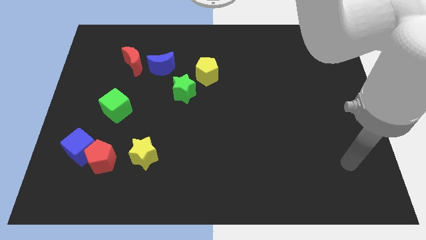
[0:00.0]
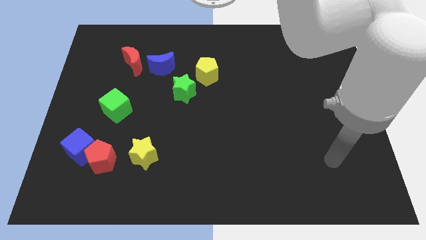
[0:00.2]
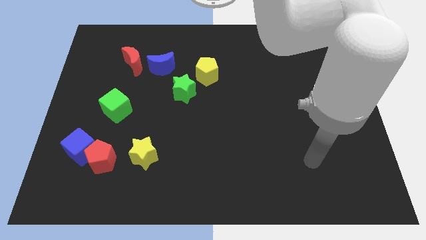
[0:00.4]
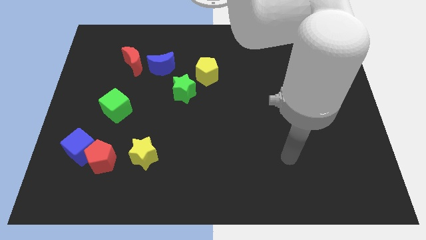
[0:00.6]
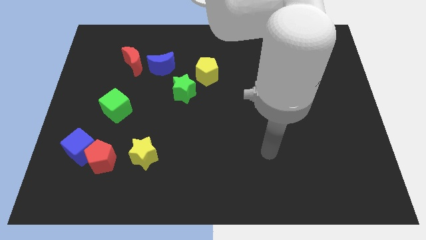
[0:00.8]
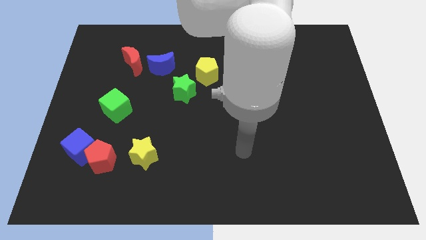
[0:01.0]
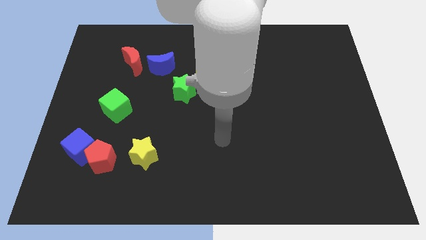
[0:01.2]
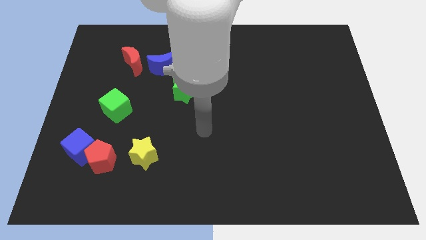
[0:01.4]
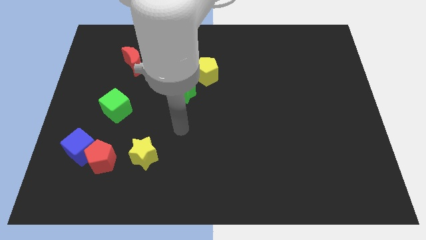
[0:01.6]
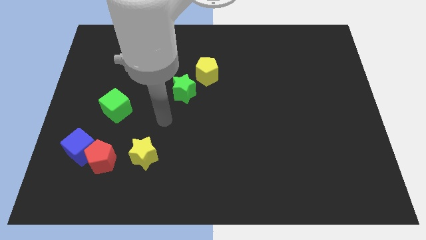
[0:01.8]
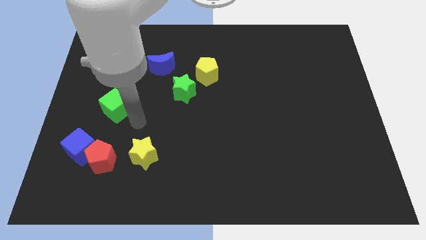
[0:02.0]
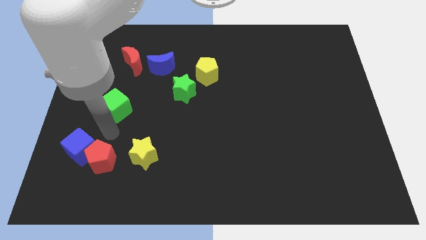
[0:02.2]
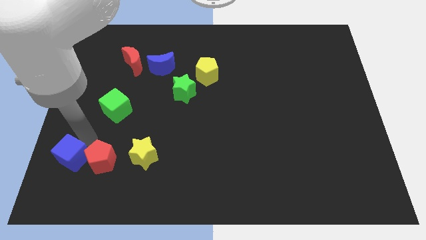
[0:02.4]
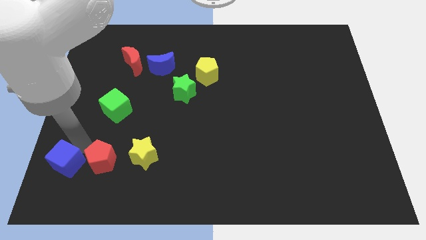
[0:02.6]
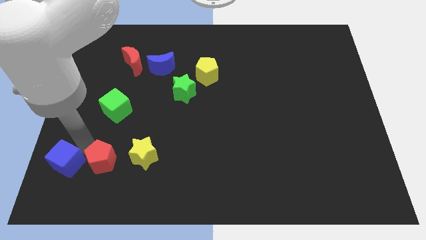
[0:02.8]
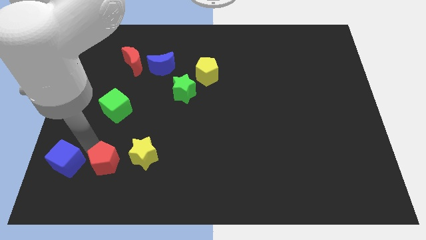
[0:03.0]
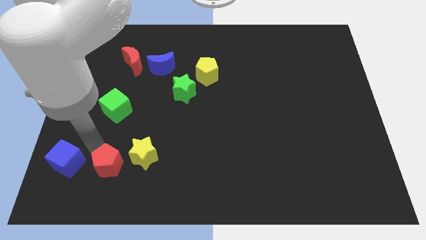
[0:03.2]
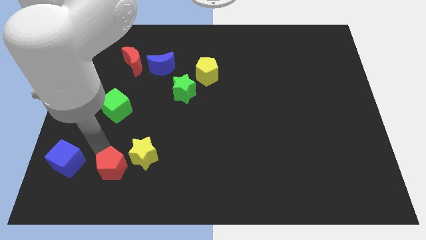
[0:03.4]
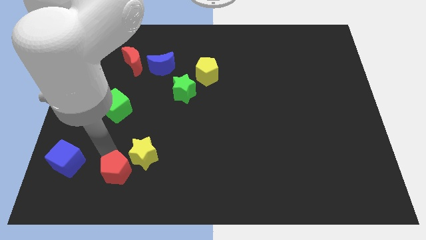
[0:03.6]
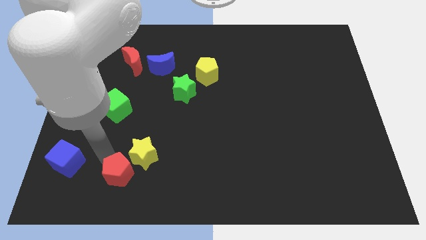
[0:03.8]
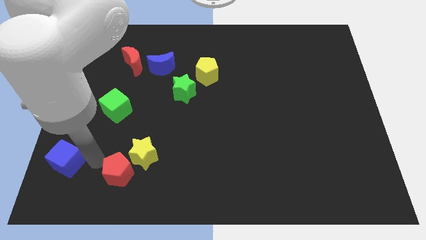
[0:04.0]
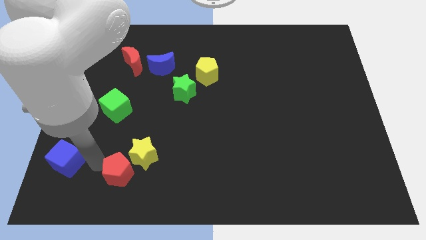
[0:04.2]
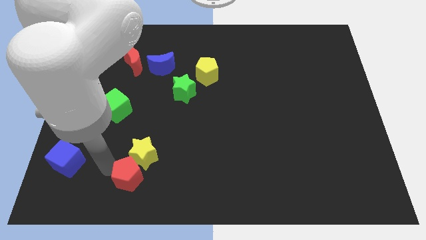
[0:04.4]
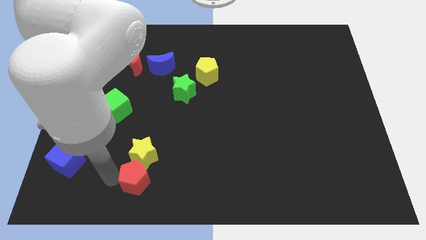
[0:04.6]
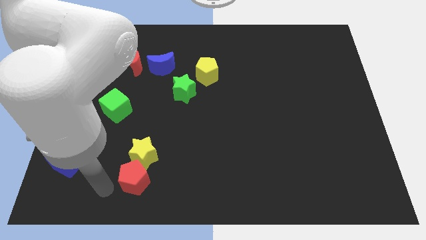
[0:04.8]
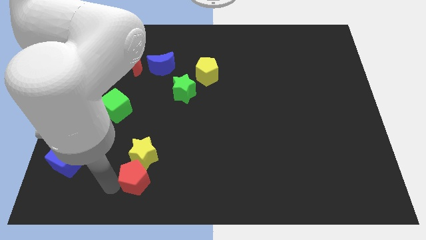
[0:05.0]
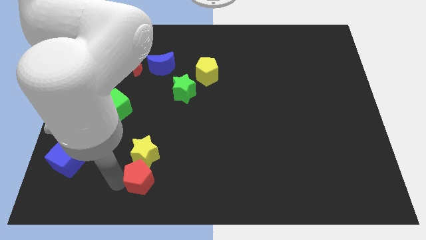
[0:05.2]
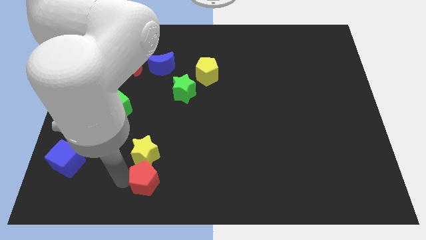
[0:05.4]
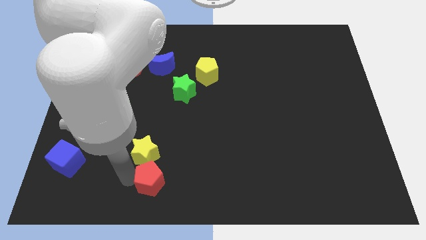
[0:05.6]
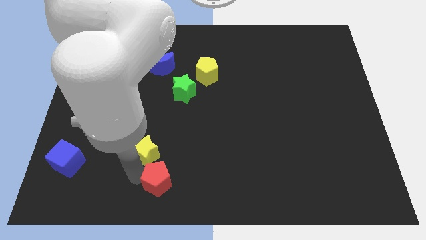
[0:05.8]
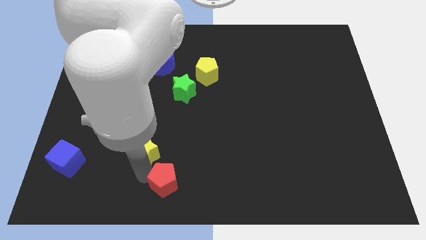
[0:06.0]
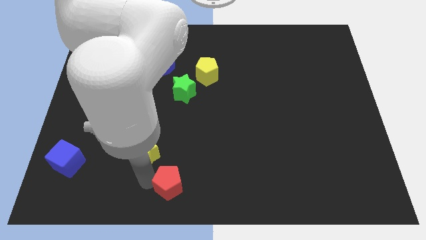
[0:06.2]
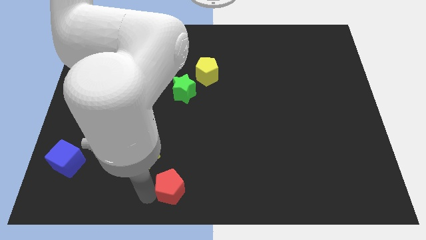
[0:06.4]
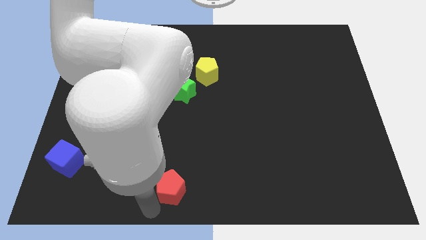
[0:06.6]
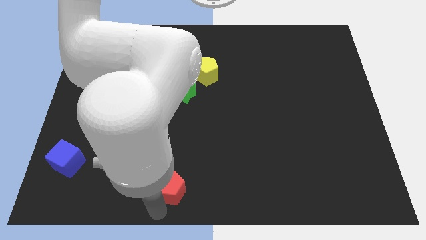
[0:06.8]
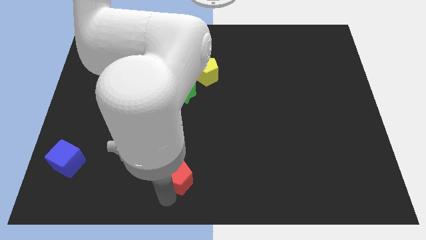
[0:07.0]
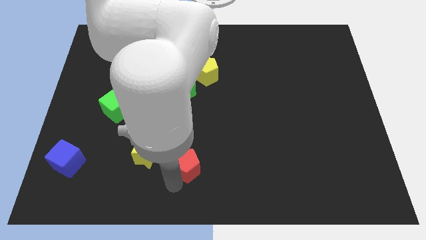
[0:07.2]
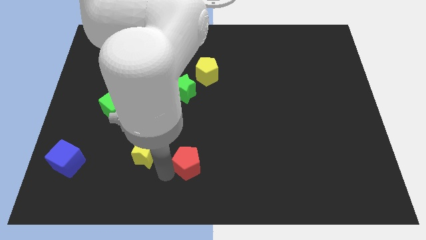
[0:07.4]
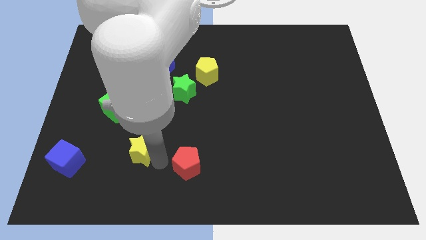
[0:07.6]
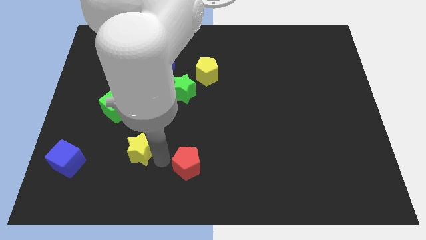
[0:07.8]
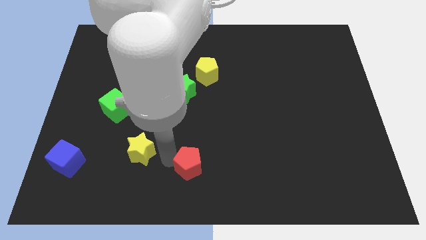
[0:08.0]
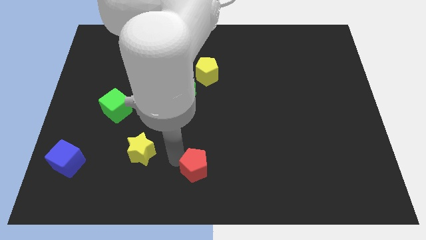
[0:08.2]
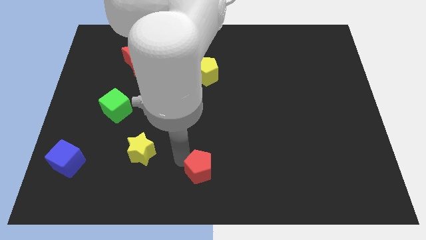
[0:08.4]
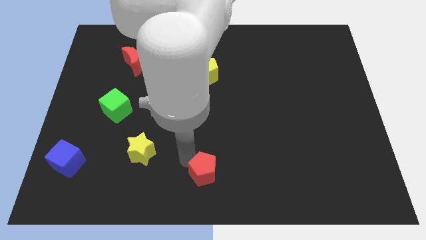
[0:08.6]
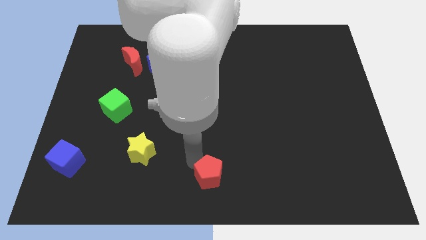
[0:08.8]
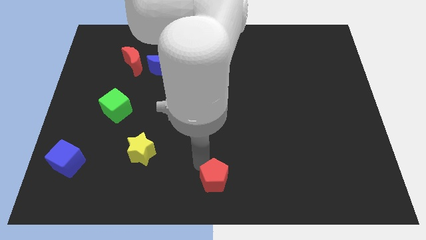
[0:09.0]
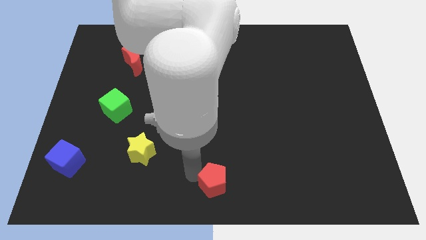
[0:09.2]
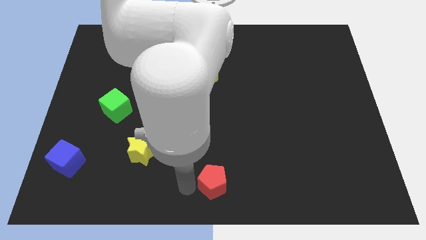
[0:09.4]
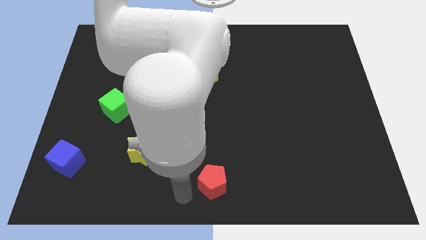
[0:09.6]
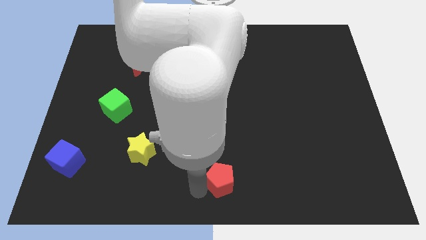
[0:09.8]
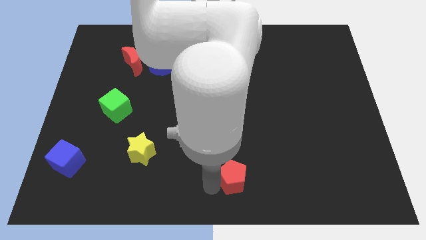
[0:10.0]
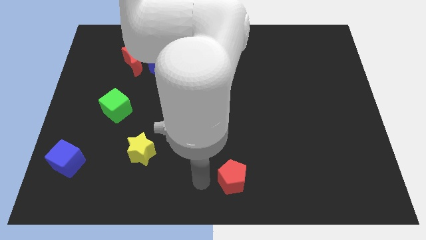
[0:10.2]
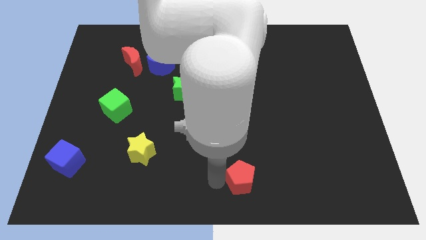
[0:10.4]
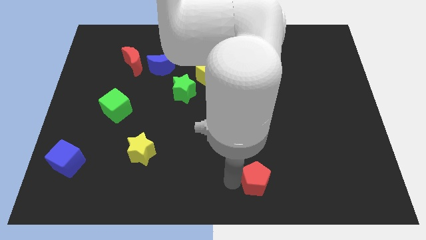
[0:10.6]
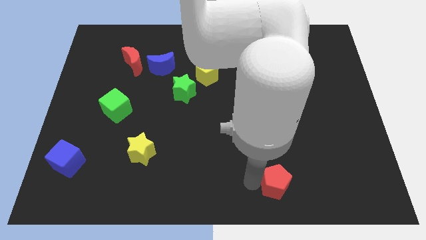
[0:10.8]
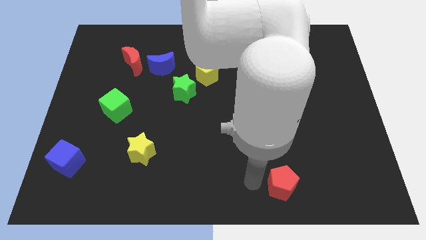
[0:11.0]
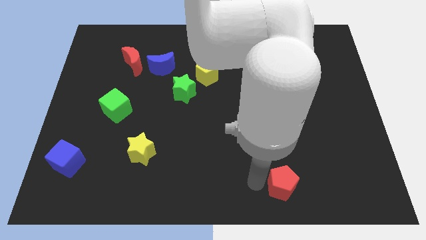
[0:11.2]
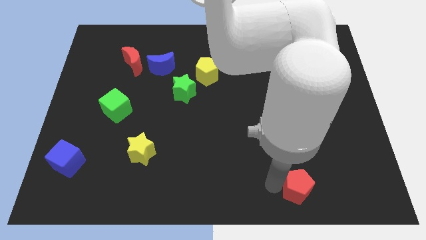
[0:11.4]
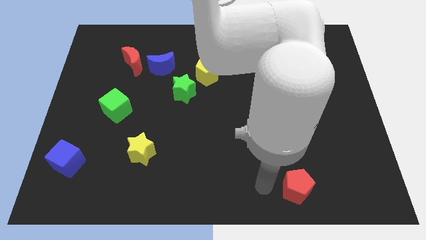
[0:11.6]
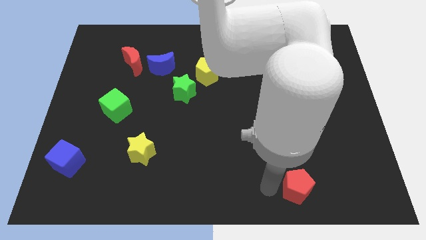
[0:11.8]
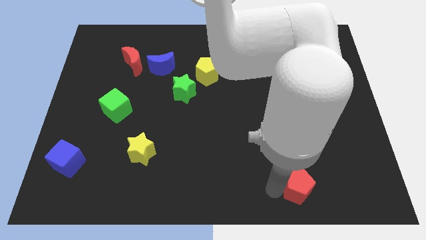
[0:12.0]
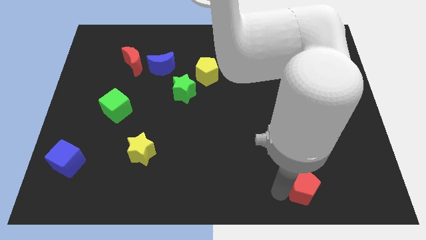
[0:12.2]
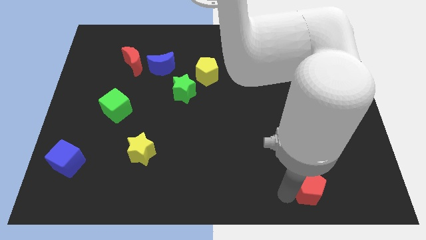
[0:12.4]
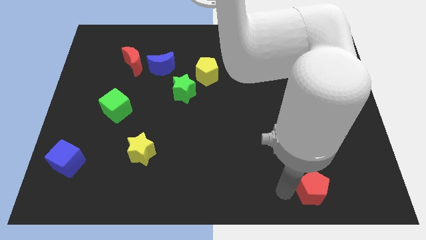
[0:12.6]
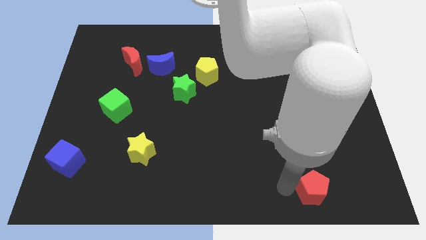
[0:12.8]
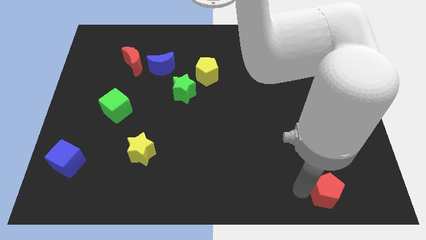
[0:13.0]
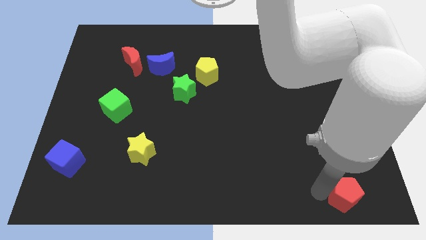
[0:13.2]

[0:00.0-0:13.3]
move the red pentagon to the bottom right

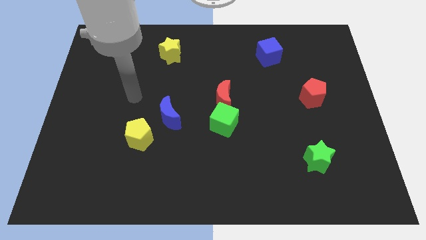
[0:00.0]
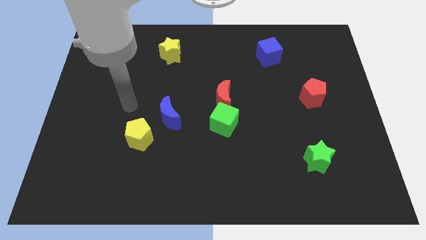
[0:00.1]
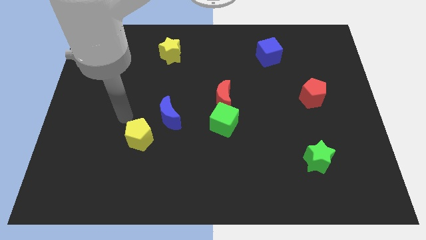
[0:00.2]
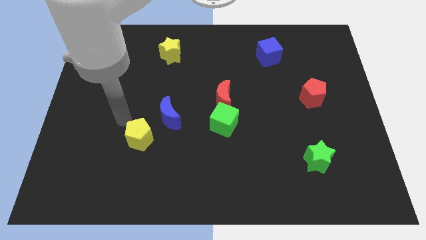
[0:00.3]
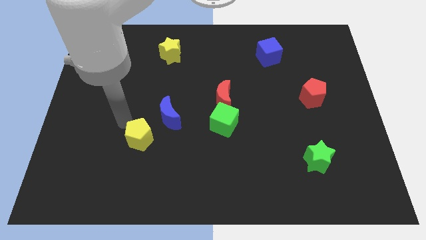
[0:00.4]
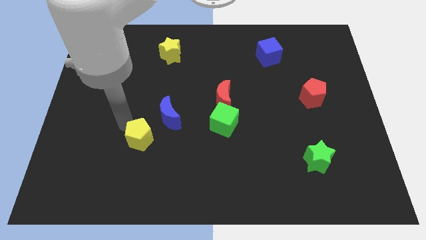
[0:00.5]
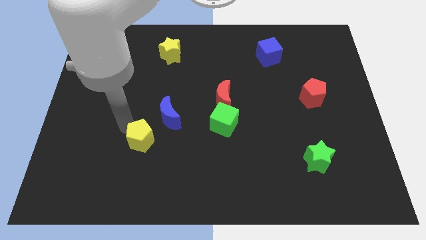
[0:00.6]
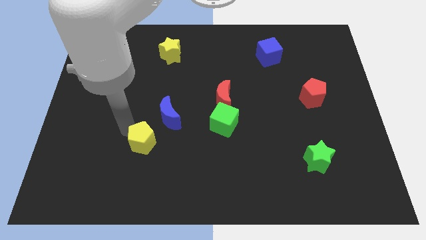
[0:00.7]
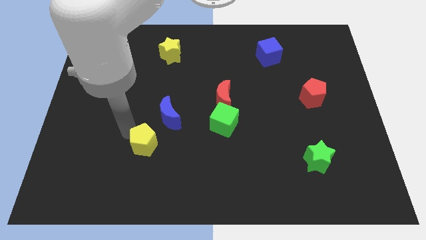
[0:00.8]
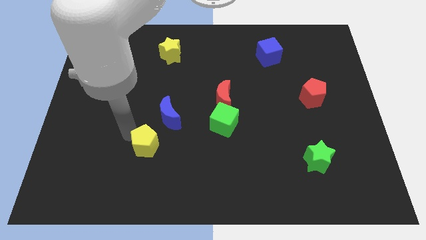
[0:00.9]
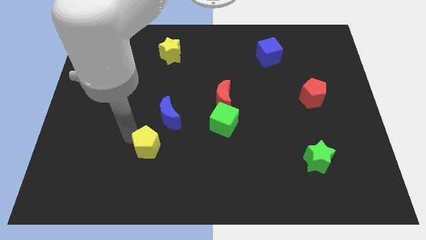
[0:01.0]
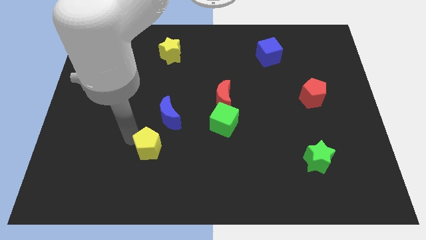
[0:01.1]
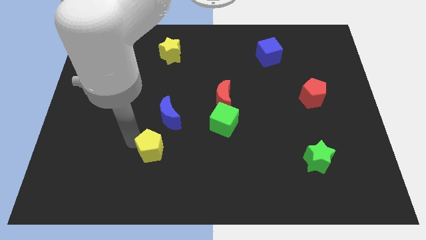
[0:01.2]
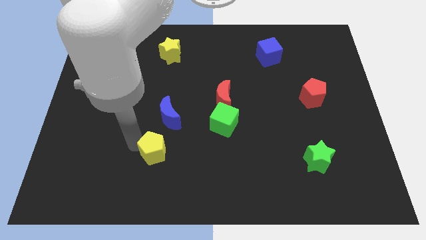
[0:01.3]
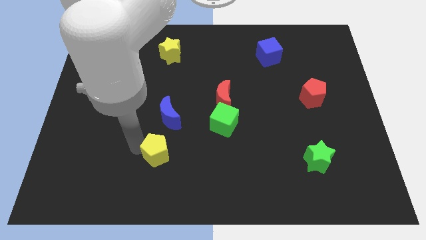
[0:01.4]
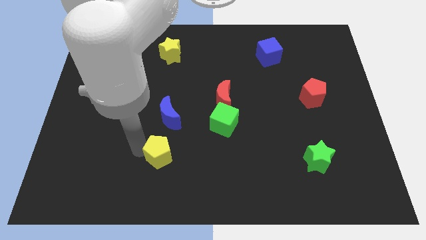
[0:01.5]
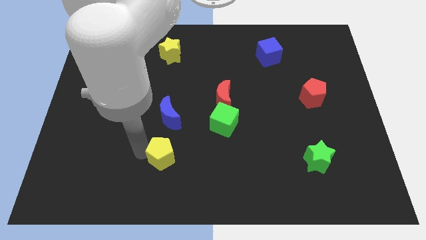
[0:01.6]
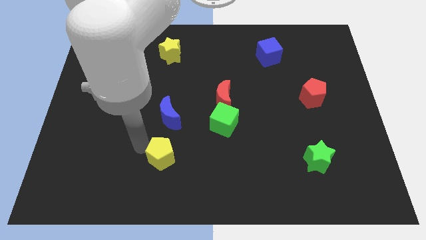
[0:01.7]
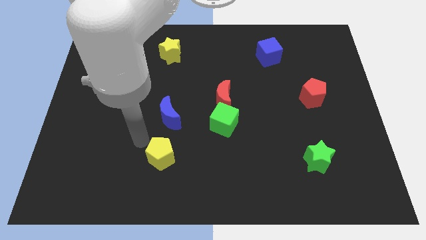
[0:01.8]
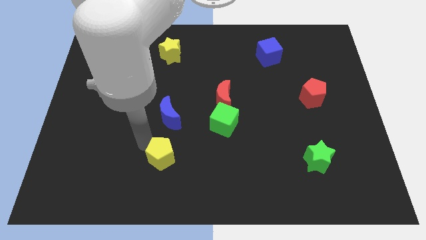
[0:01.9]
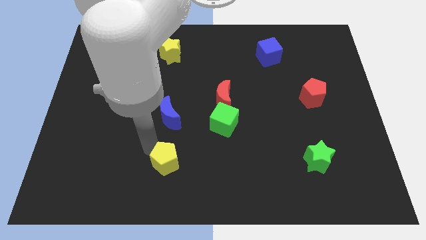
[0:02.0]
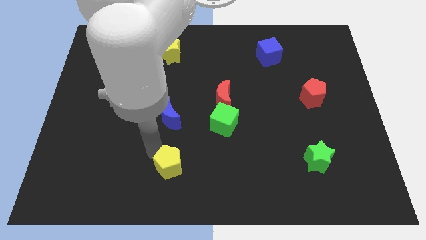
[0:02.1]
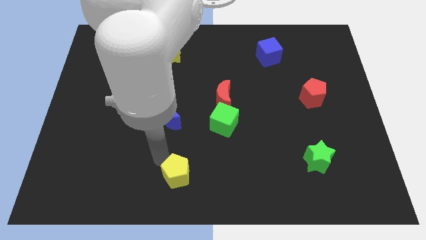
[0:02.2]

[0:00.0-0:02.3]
put the yellow pentagon to the bottom side
